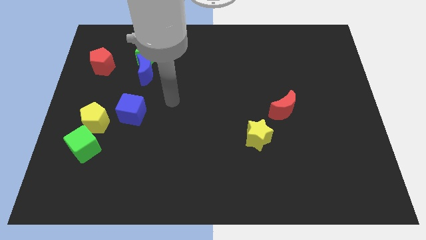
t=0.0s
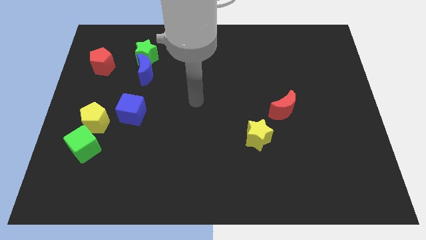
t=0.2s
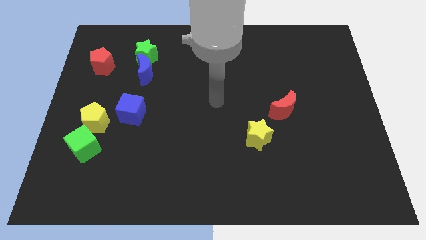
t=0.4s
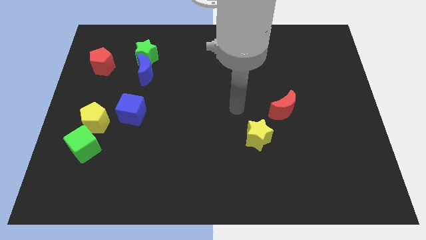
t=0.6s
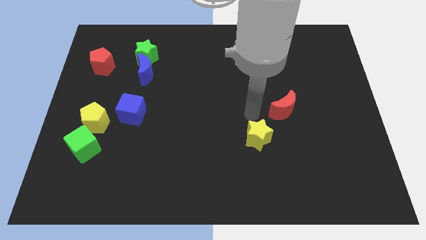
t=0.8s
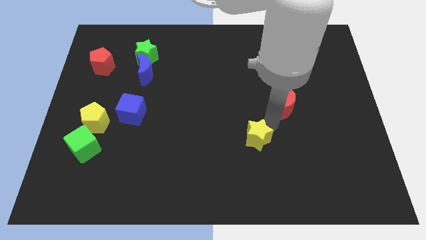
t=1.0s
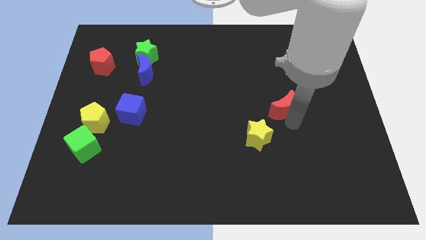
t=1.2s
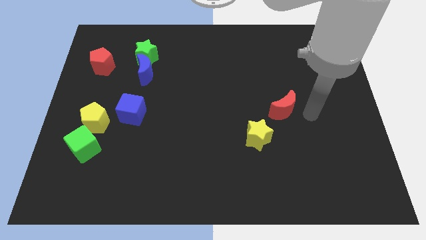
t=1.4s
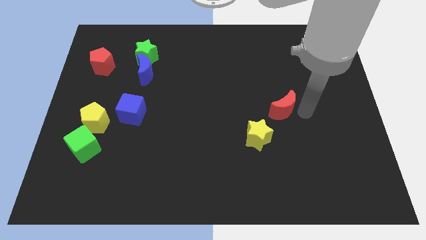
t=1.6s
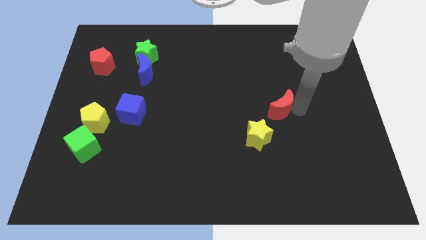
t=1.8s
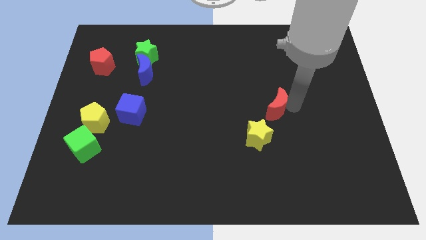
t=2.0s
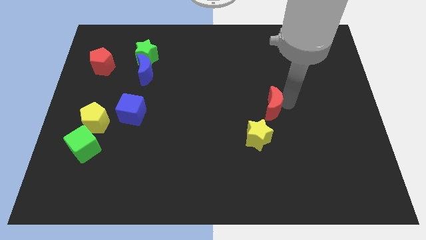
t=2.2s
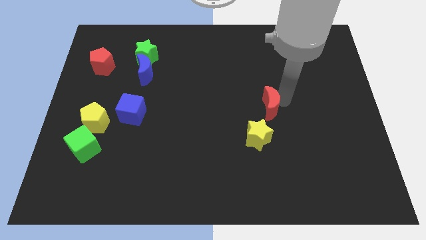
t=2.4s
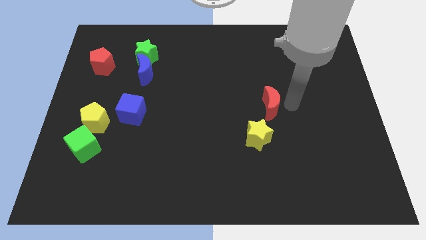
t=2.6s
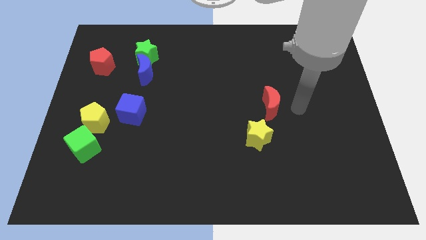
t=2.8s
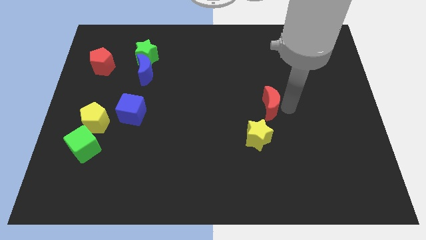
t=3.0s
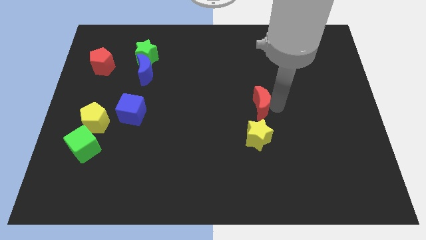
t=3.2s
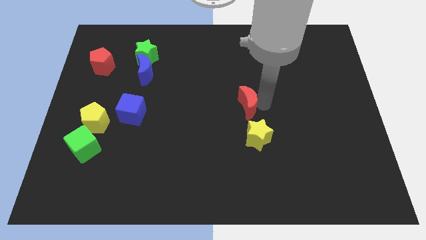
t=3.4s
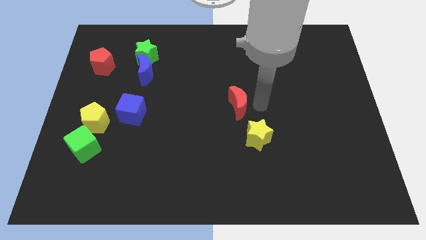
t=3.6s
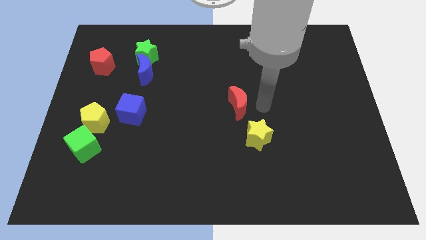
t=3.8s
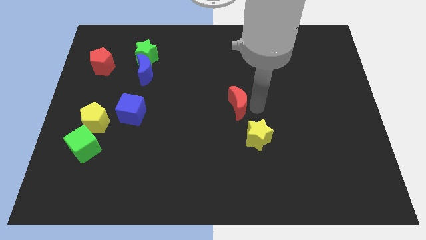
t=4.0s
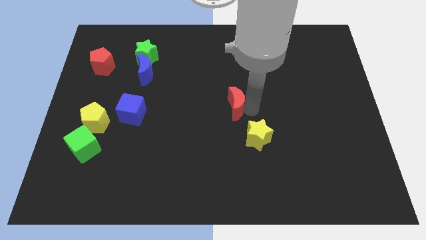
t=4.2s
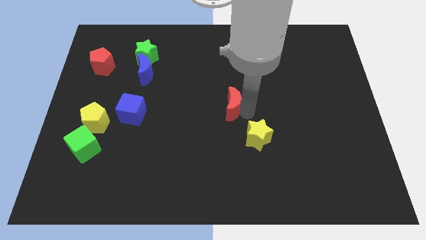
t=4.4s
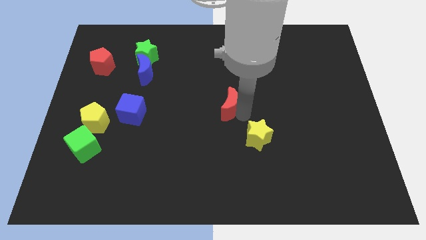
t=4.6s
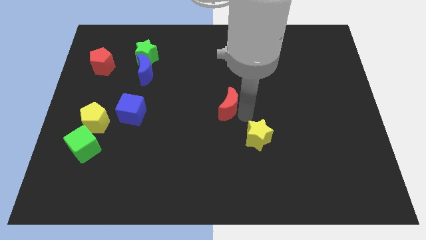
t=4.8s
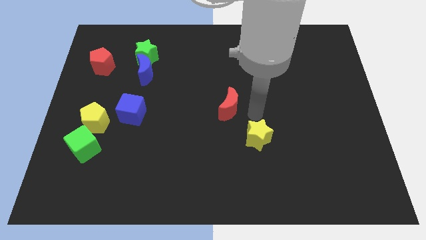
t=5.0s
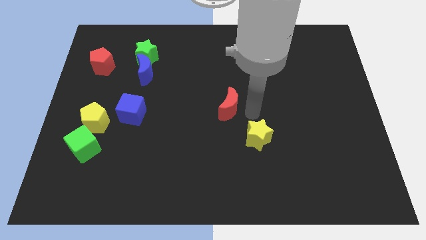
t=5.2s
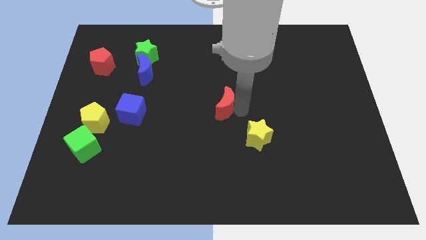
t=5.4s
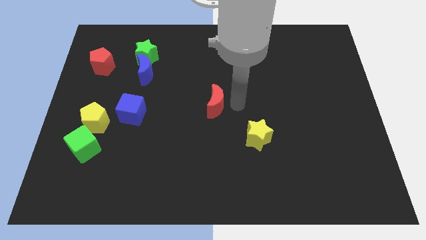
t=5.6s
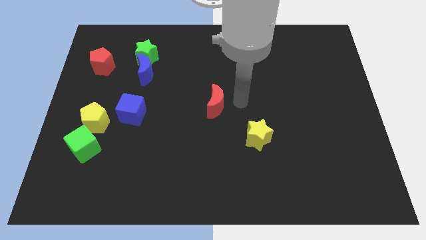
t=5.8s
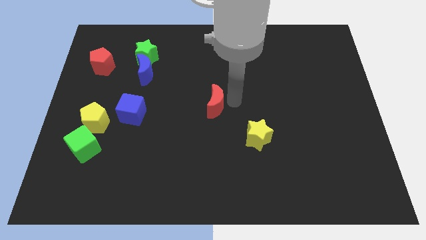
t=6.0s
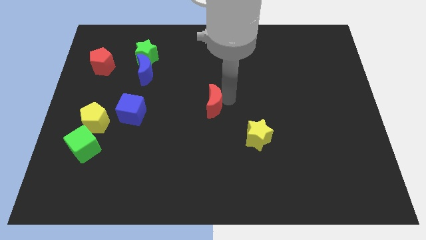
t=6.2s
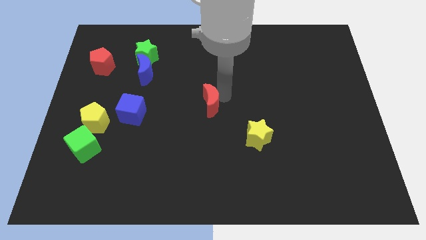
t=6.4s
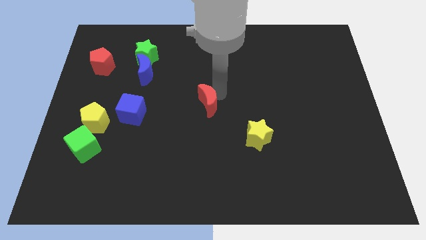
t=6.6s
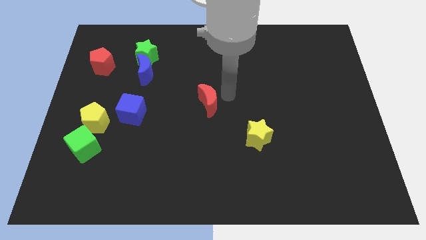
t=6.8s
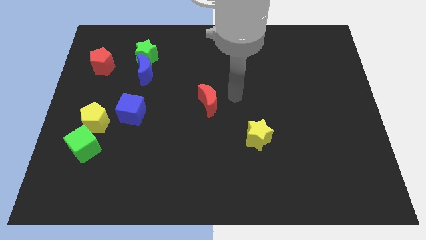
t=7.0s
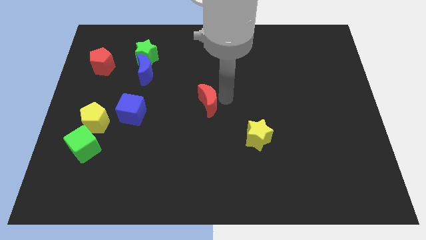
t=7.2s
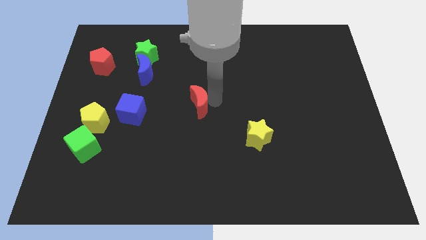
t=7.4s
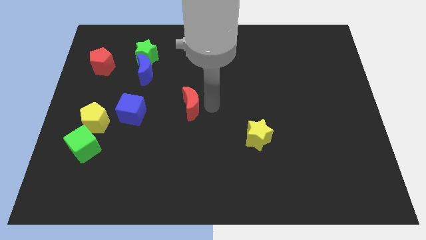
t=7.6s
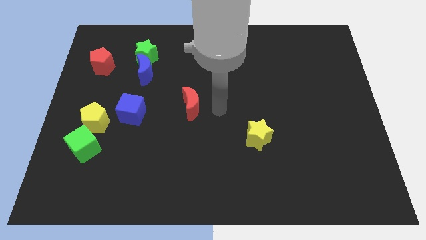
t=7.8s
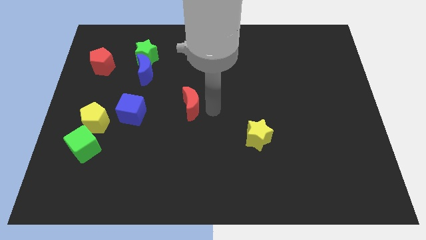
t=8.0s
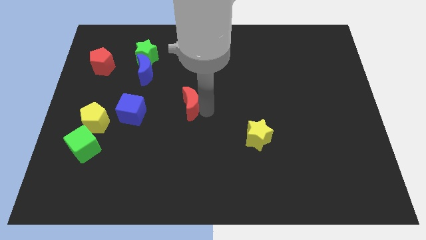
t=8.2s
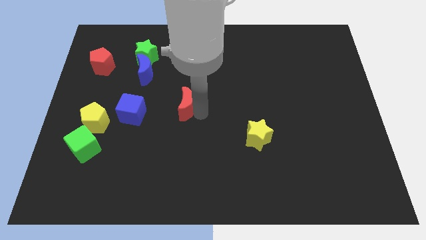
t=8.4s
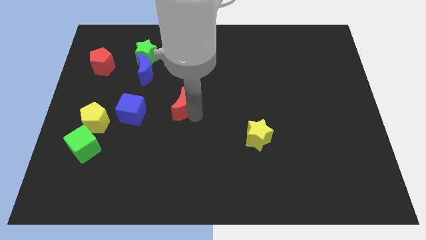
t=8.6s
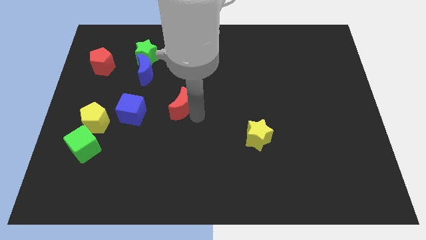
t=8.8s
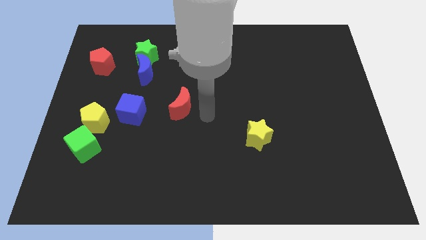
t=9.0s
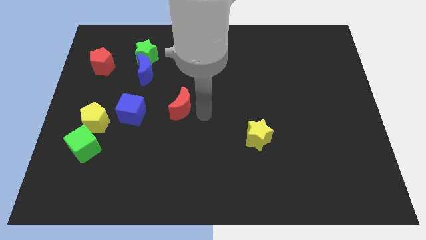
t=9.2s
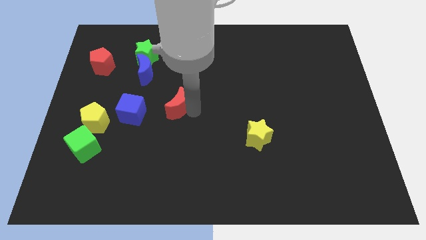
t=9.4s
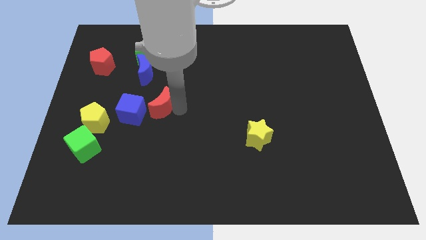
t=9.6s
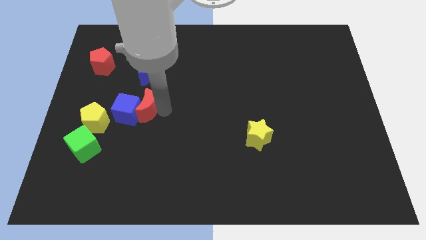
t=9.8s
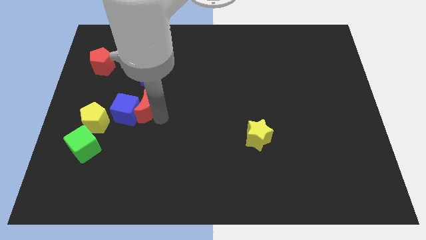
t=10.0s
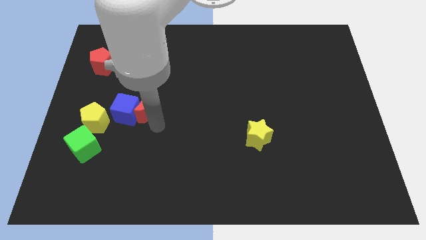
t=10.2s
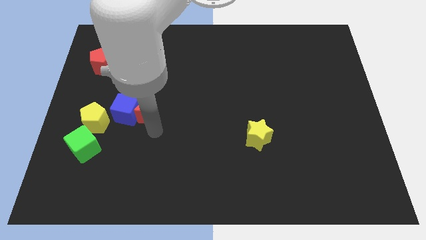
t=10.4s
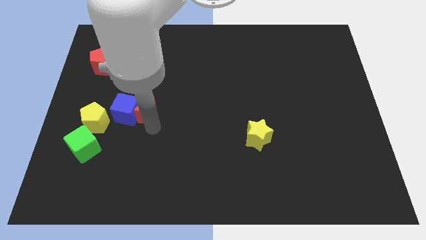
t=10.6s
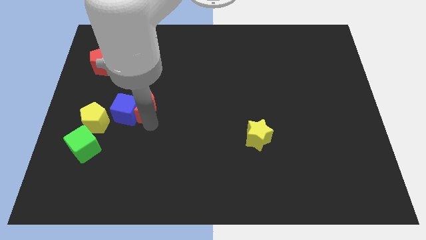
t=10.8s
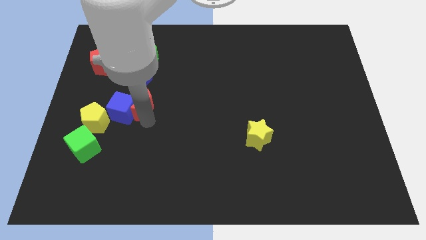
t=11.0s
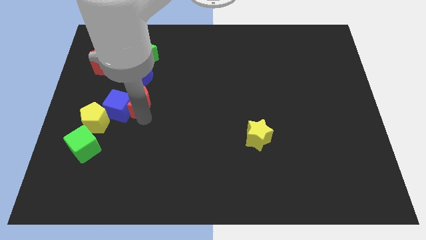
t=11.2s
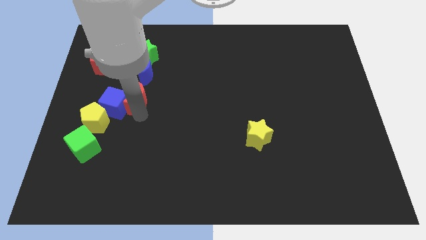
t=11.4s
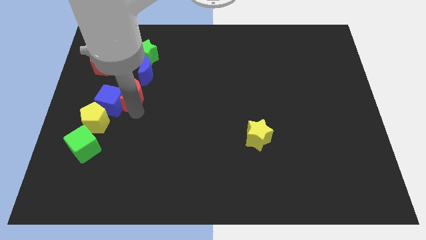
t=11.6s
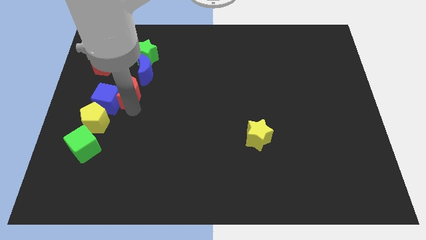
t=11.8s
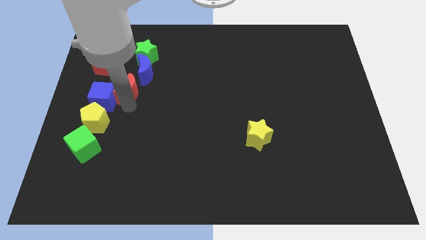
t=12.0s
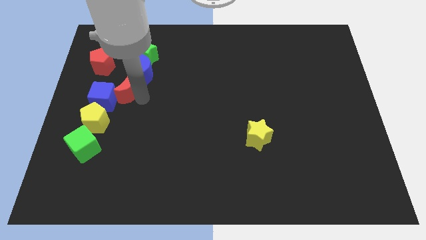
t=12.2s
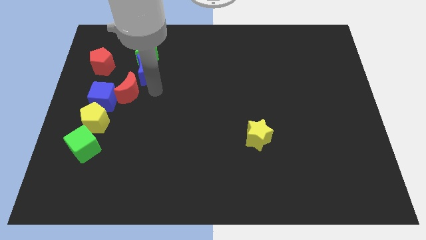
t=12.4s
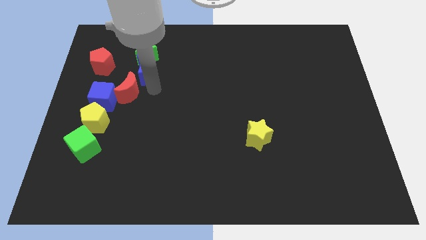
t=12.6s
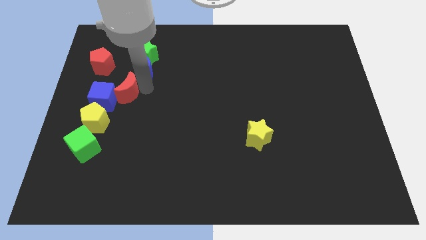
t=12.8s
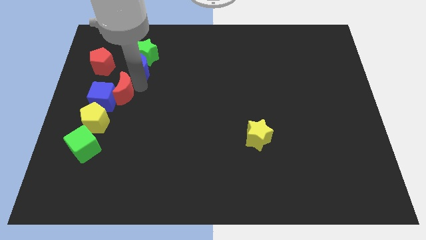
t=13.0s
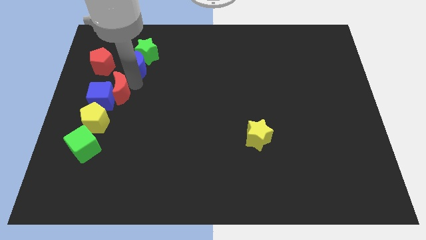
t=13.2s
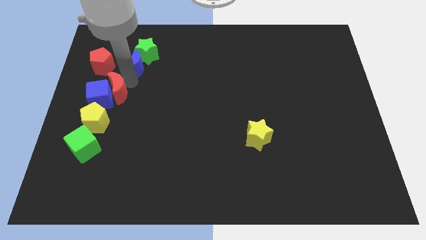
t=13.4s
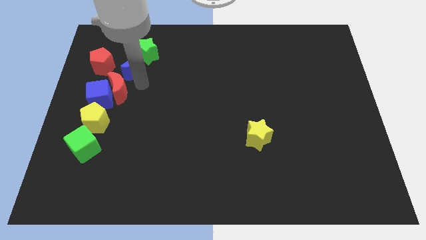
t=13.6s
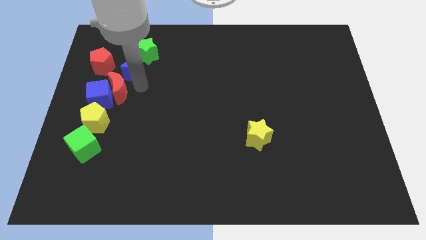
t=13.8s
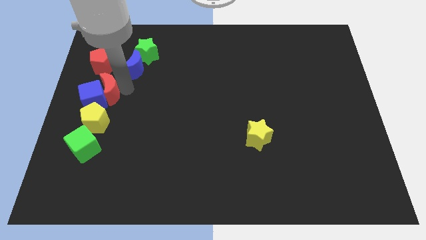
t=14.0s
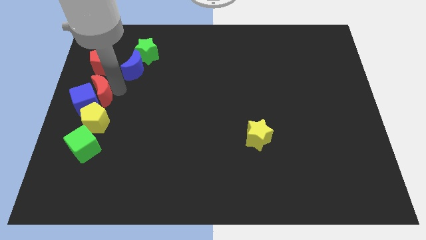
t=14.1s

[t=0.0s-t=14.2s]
push the red moon to the left side
